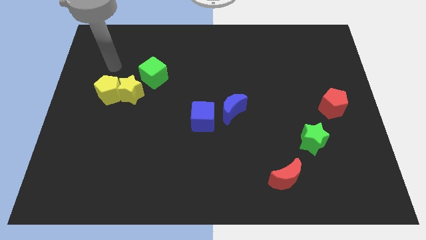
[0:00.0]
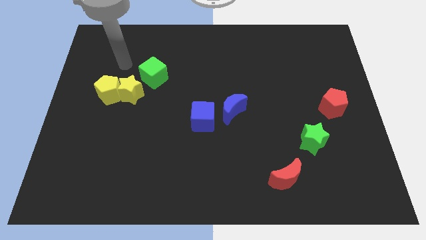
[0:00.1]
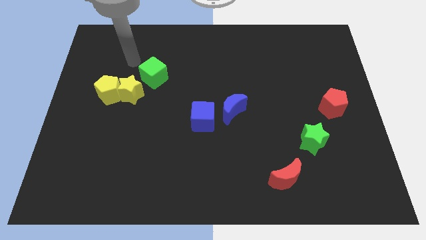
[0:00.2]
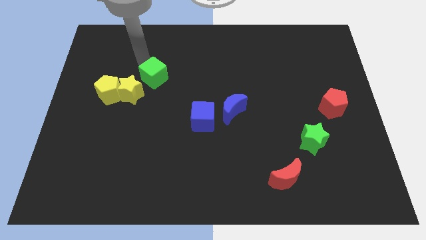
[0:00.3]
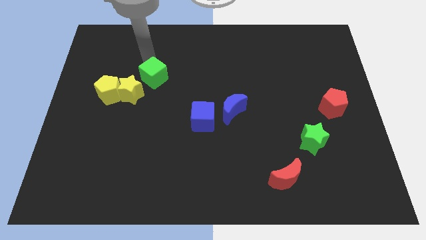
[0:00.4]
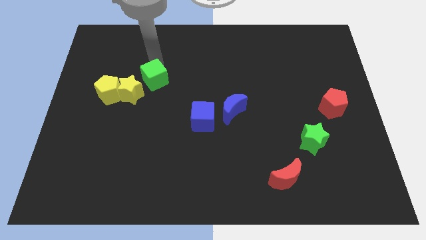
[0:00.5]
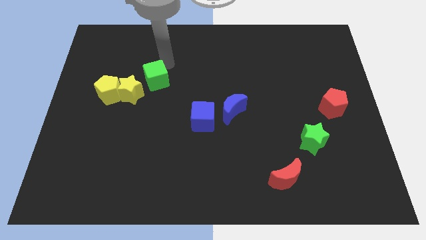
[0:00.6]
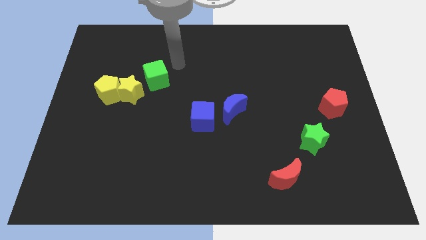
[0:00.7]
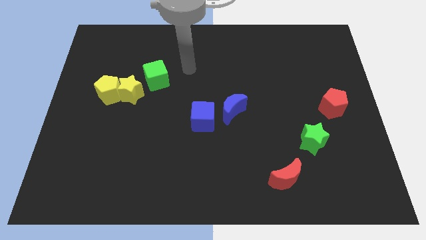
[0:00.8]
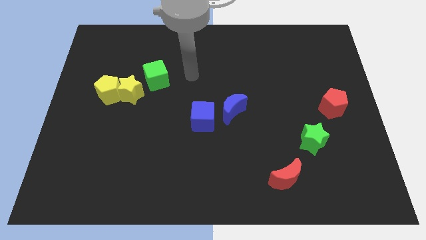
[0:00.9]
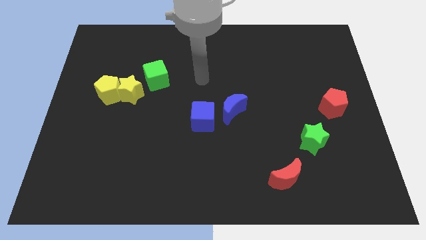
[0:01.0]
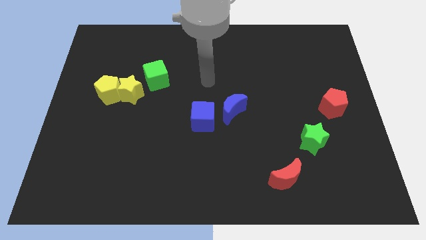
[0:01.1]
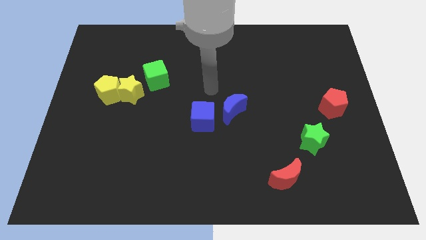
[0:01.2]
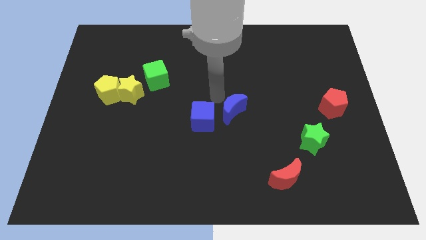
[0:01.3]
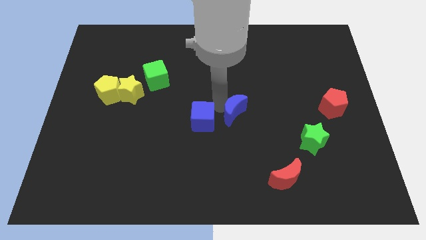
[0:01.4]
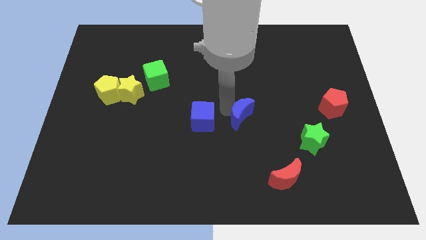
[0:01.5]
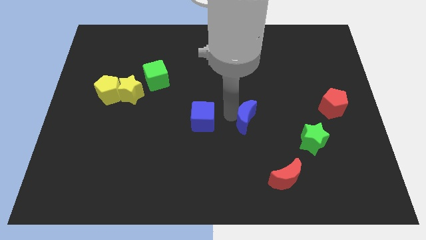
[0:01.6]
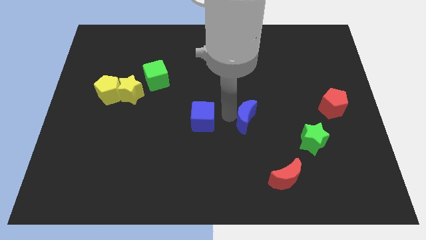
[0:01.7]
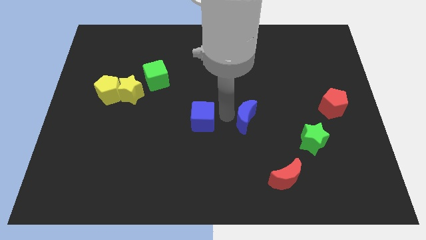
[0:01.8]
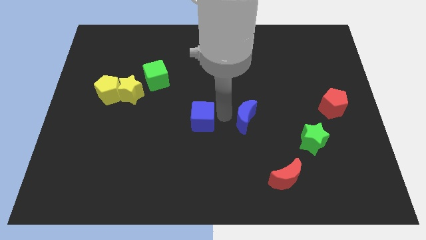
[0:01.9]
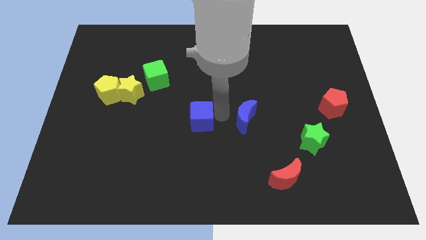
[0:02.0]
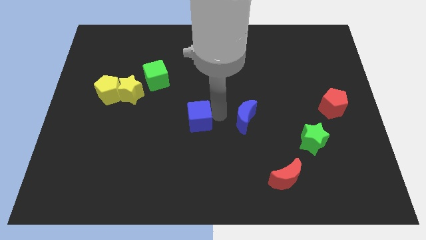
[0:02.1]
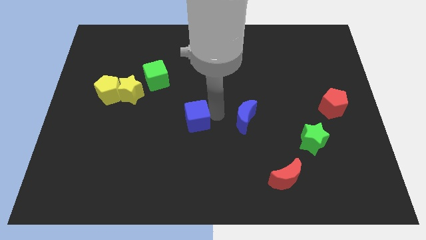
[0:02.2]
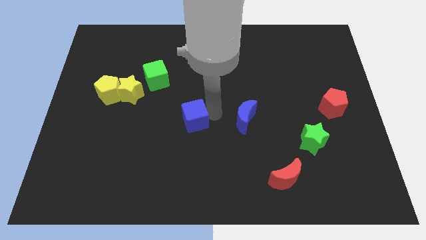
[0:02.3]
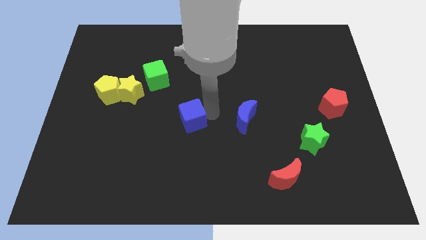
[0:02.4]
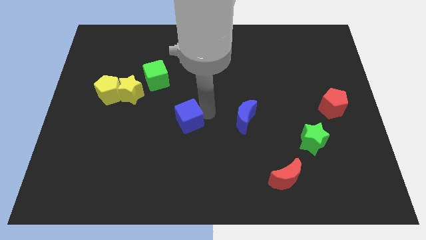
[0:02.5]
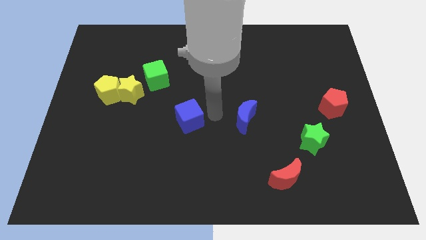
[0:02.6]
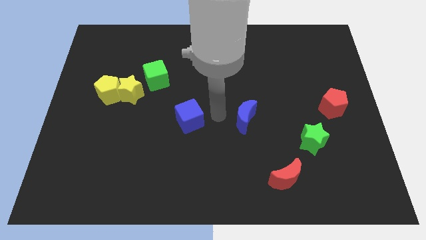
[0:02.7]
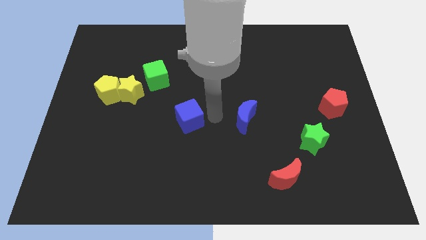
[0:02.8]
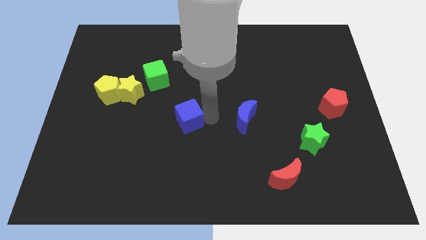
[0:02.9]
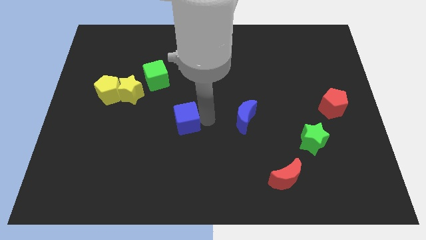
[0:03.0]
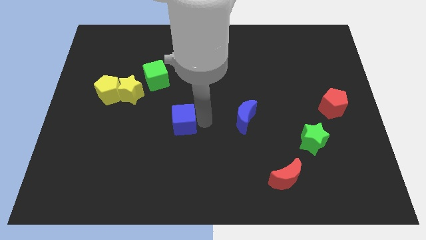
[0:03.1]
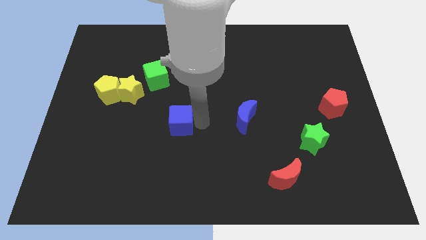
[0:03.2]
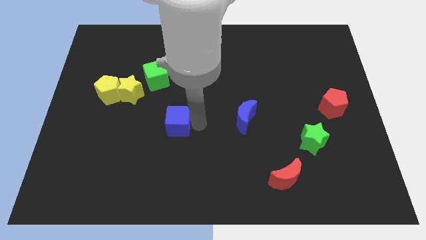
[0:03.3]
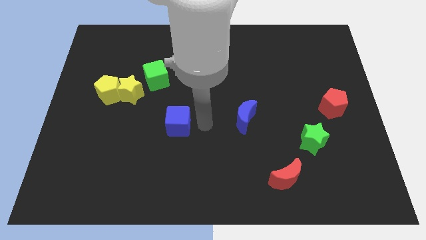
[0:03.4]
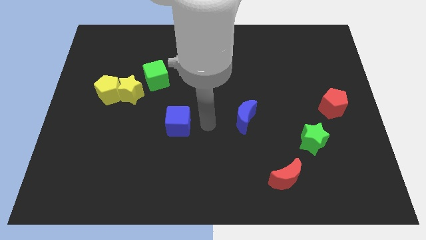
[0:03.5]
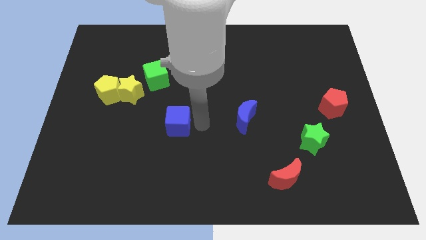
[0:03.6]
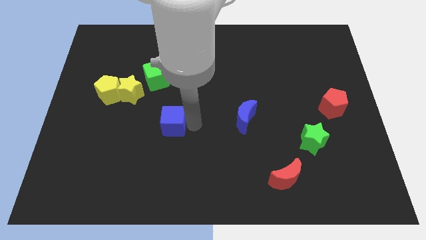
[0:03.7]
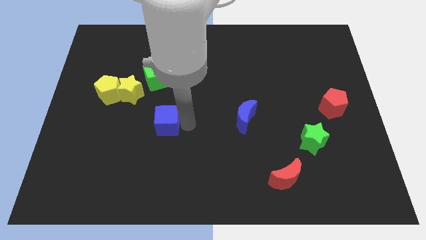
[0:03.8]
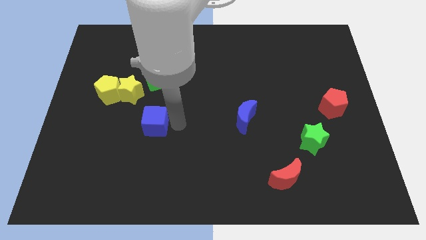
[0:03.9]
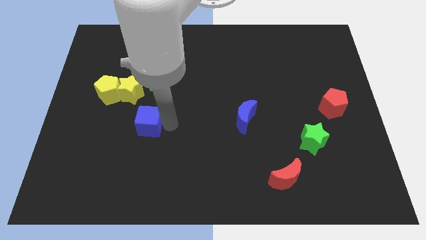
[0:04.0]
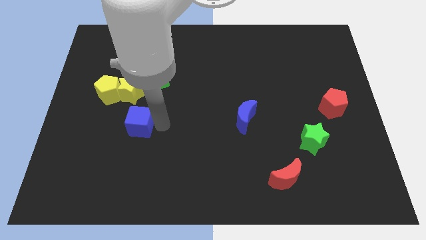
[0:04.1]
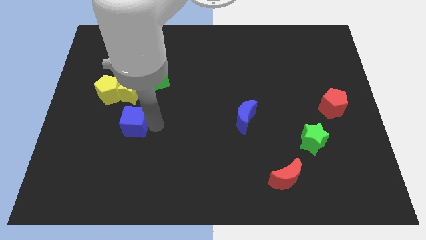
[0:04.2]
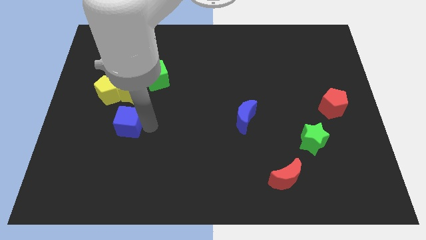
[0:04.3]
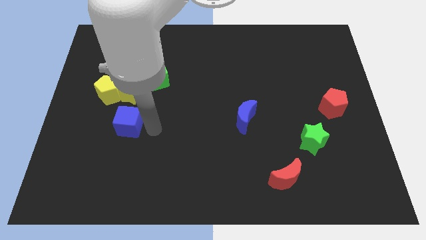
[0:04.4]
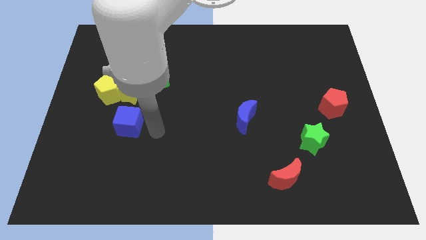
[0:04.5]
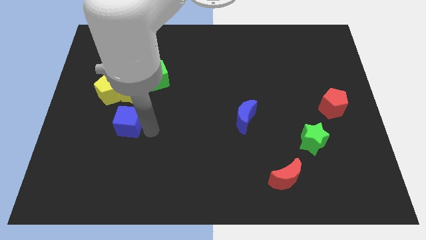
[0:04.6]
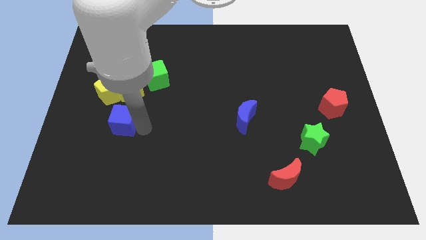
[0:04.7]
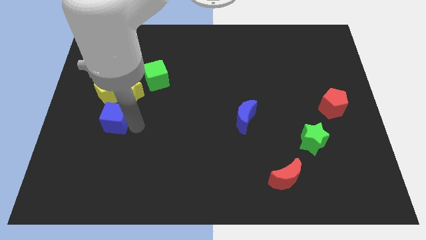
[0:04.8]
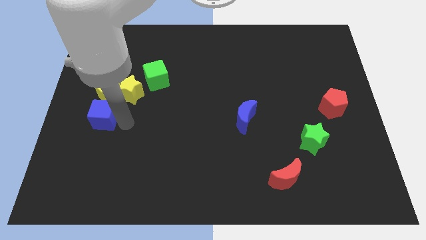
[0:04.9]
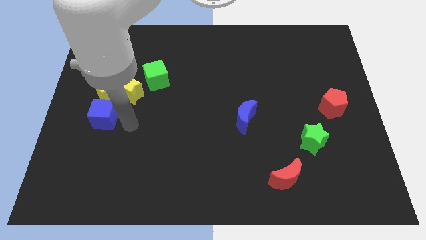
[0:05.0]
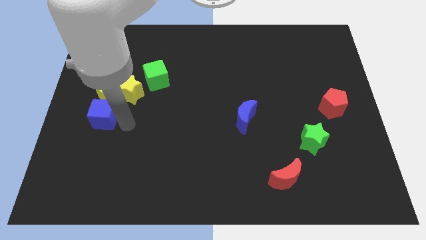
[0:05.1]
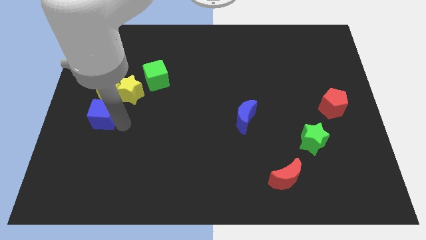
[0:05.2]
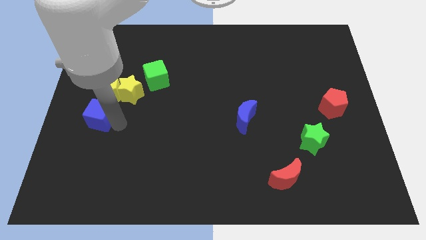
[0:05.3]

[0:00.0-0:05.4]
put the blue cube to the left side of the board

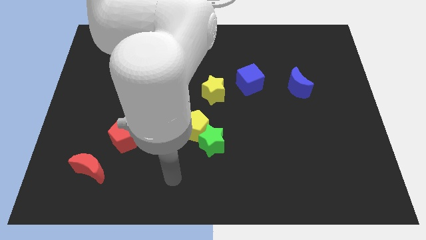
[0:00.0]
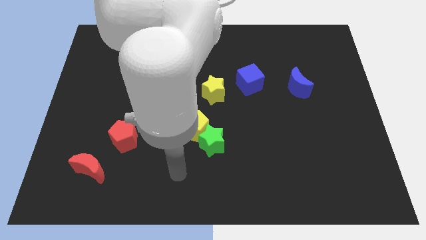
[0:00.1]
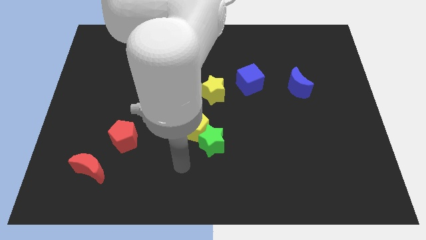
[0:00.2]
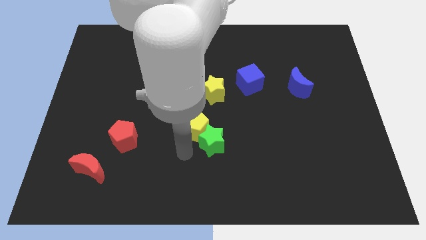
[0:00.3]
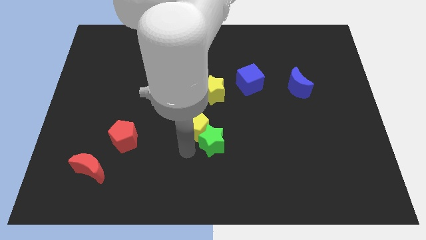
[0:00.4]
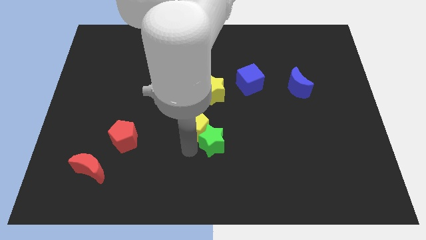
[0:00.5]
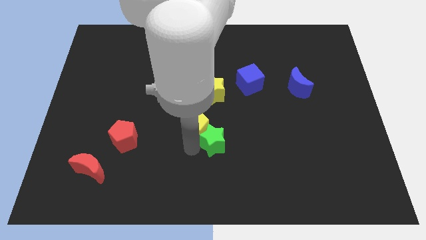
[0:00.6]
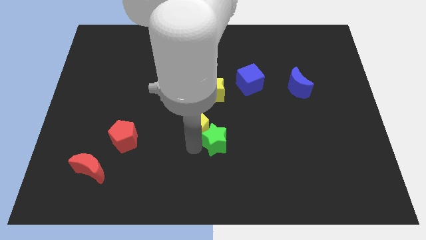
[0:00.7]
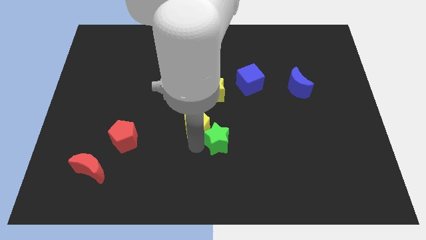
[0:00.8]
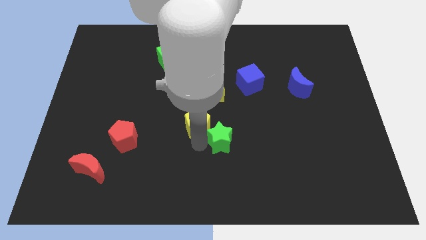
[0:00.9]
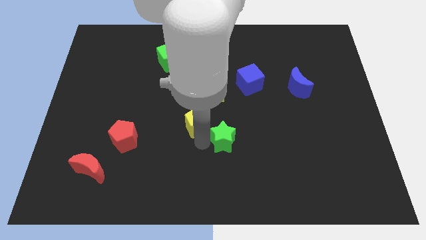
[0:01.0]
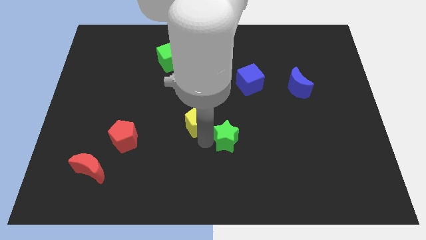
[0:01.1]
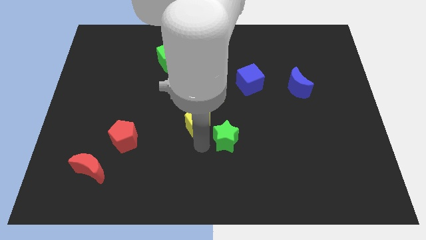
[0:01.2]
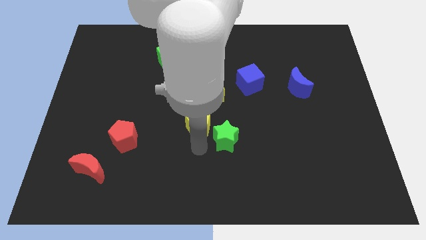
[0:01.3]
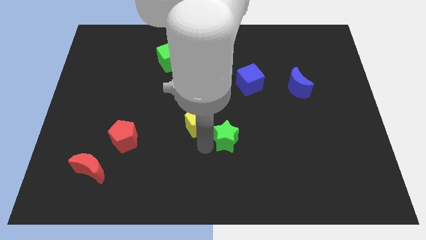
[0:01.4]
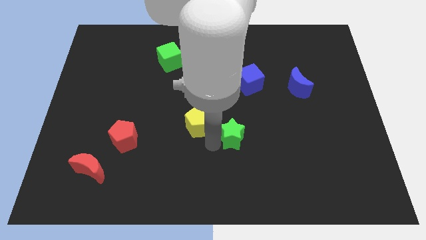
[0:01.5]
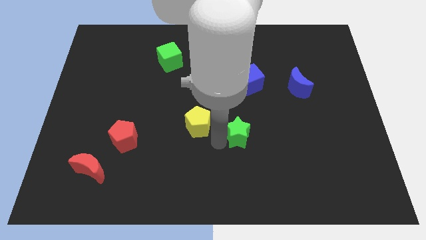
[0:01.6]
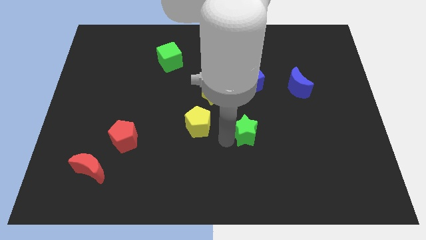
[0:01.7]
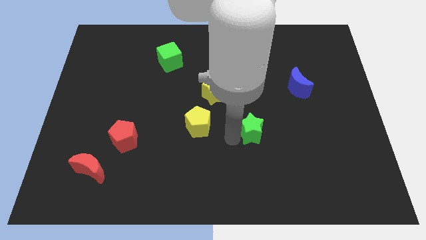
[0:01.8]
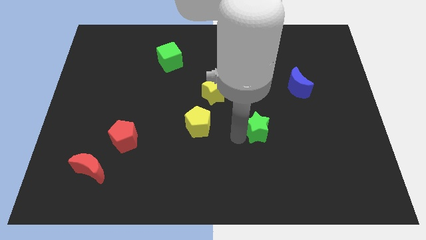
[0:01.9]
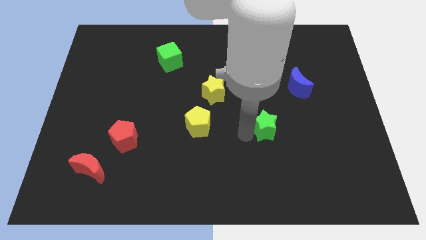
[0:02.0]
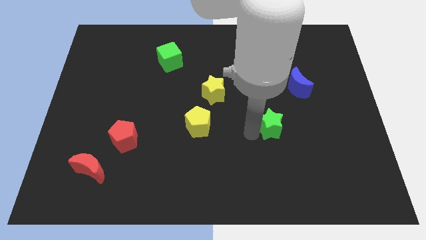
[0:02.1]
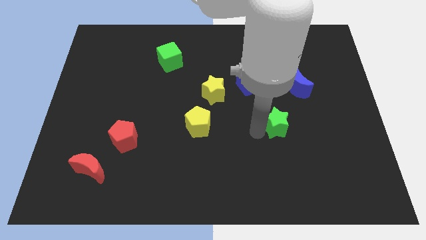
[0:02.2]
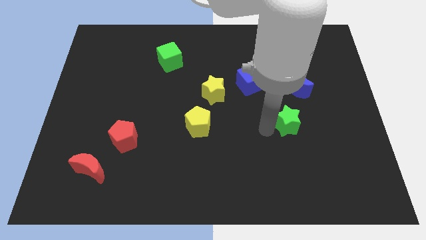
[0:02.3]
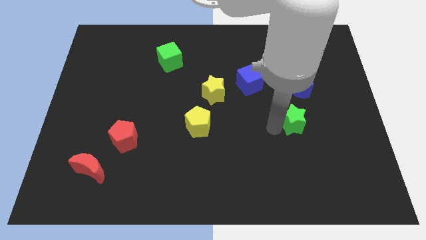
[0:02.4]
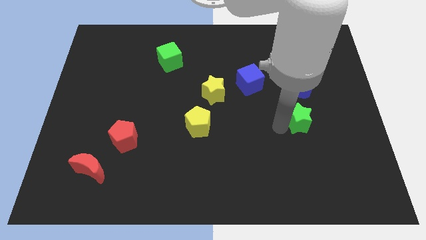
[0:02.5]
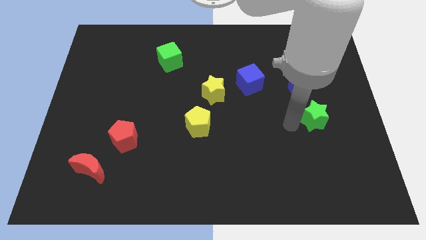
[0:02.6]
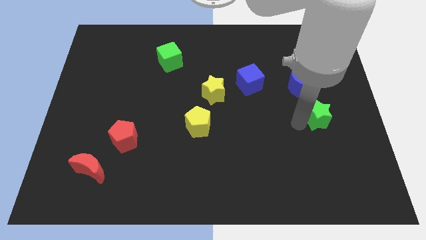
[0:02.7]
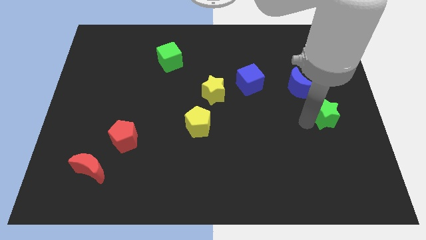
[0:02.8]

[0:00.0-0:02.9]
push the green star to the center right
